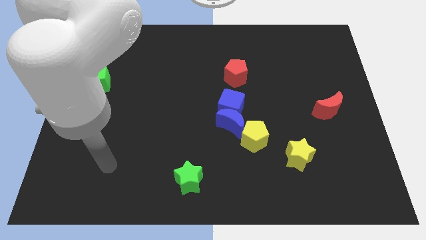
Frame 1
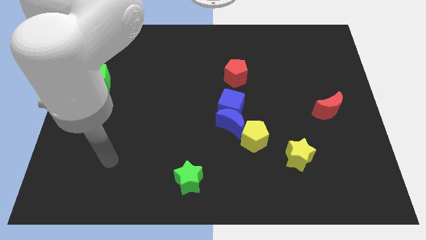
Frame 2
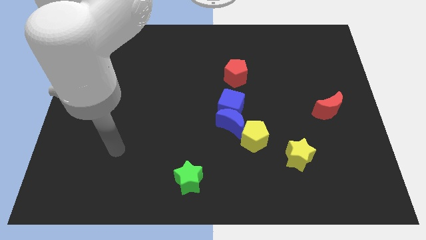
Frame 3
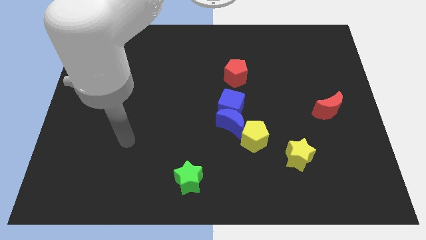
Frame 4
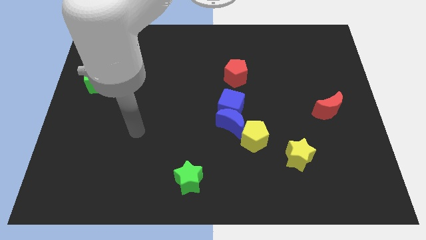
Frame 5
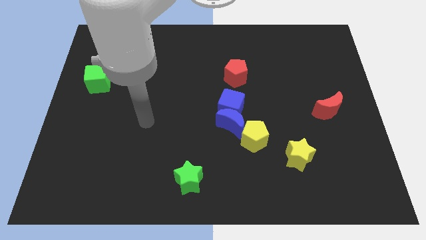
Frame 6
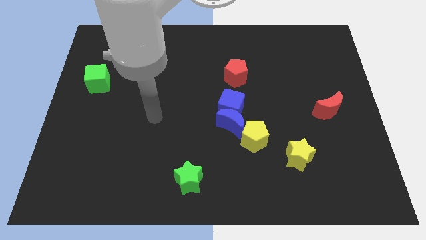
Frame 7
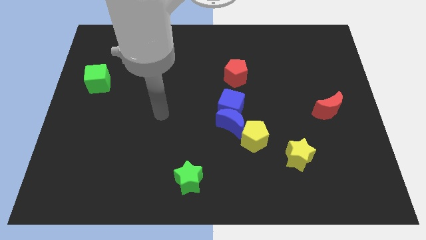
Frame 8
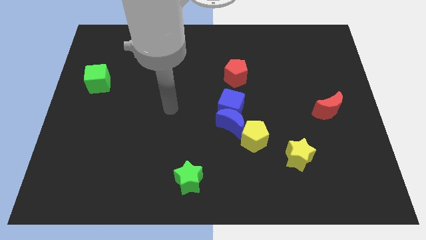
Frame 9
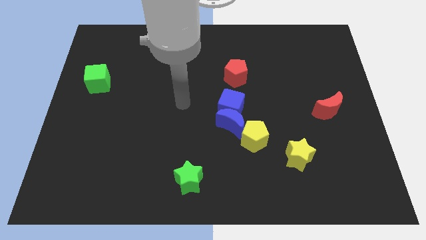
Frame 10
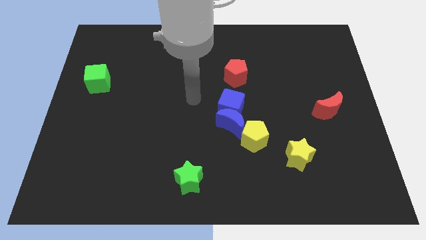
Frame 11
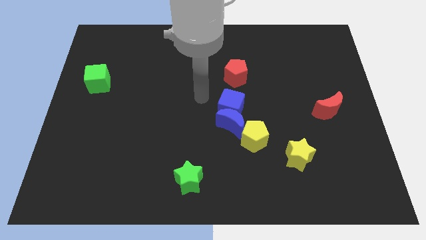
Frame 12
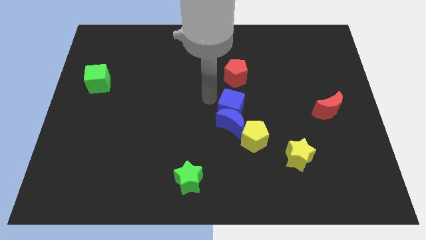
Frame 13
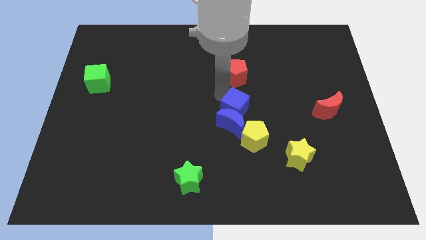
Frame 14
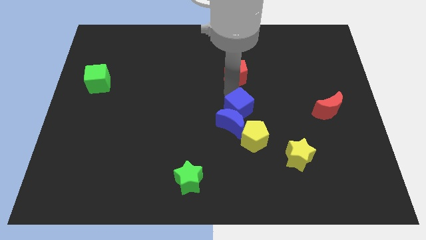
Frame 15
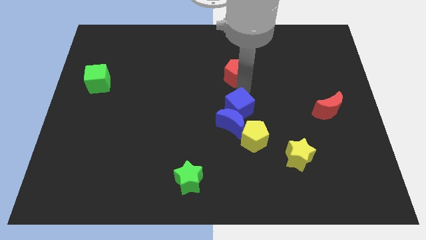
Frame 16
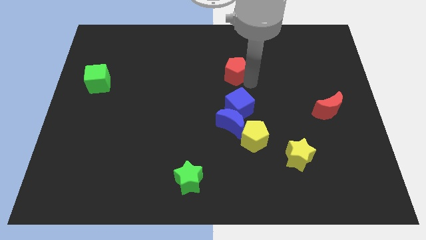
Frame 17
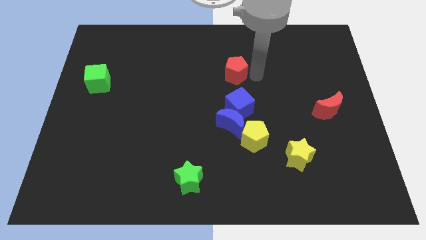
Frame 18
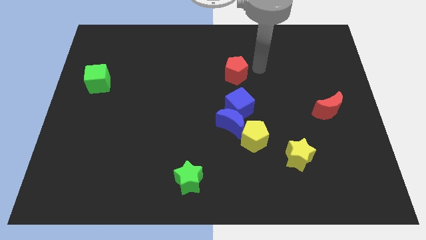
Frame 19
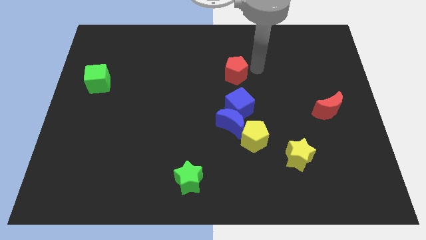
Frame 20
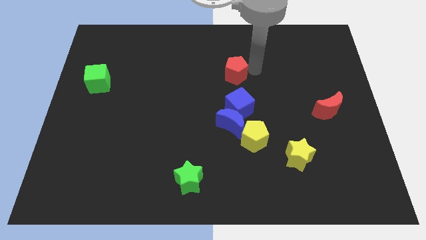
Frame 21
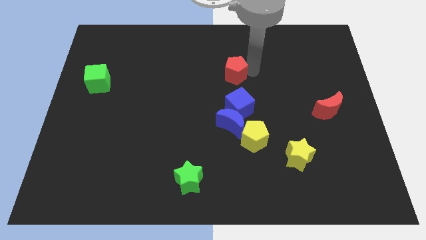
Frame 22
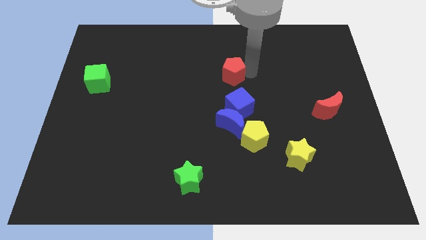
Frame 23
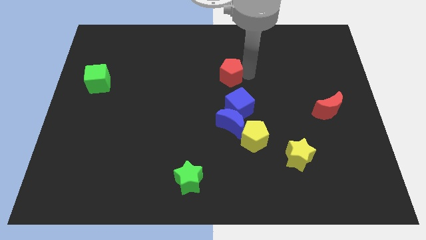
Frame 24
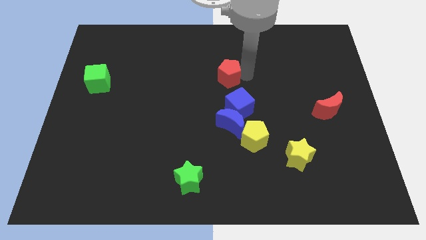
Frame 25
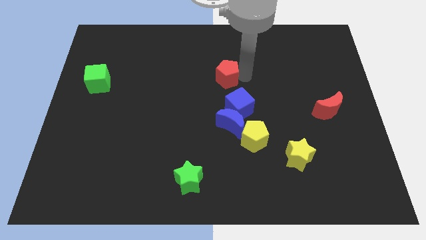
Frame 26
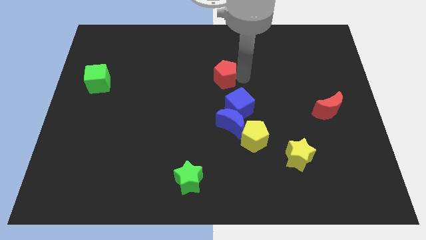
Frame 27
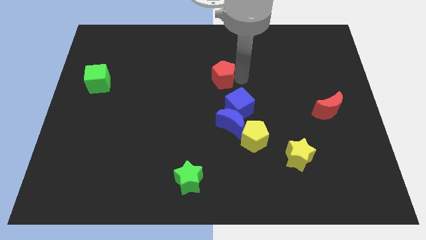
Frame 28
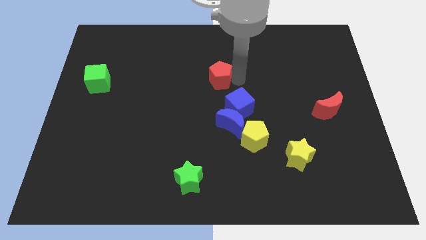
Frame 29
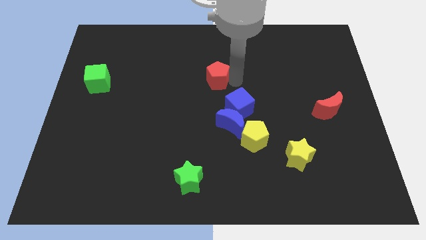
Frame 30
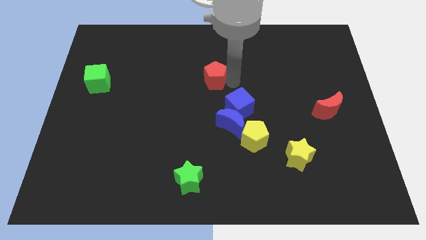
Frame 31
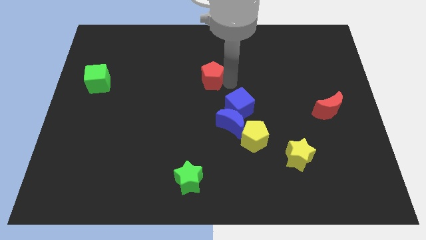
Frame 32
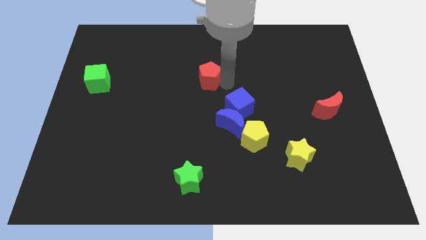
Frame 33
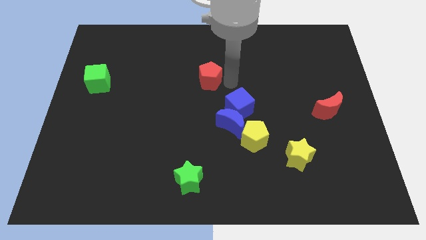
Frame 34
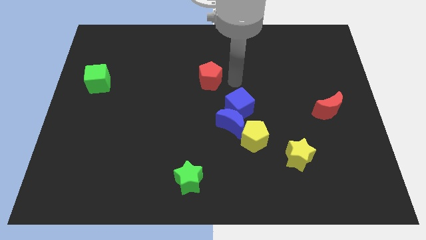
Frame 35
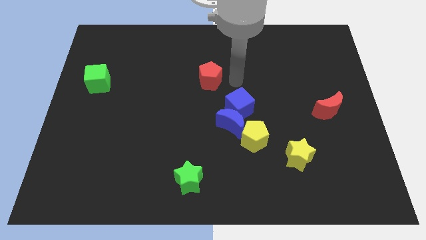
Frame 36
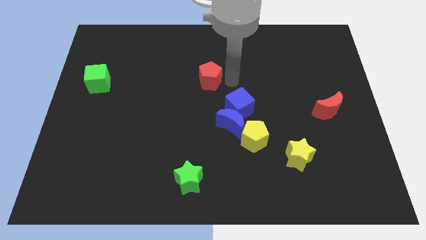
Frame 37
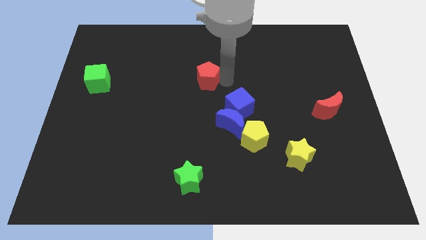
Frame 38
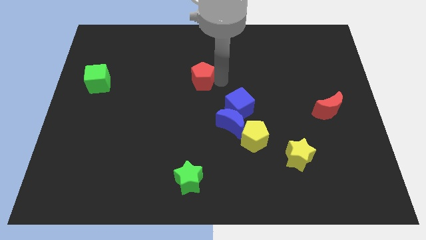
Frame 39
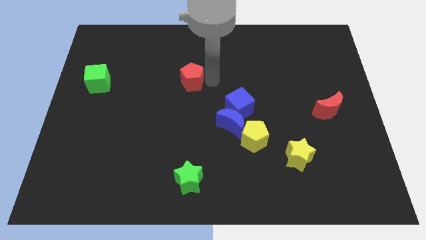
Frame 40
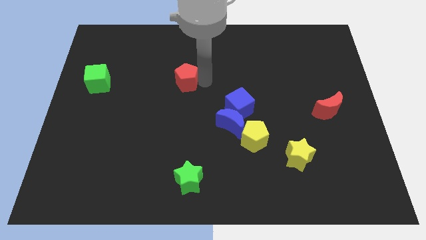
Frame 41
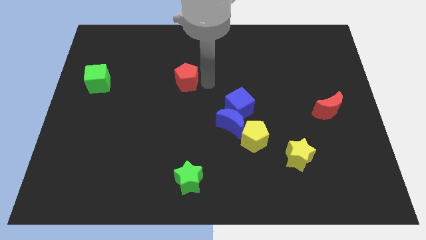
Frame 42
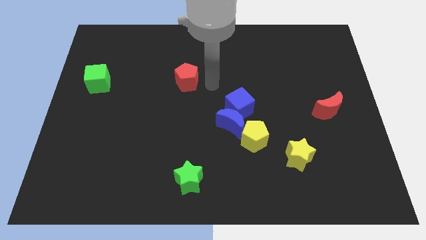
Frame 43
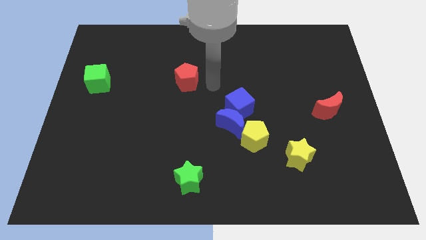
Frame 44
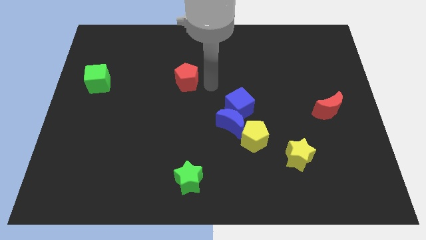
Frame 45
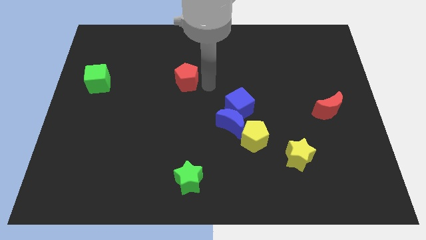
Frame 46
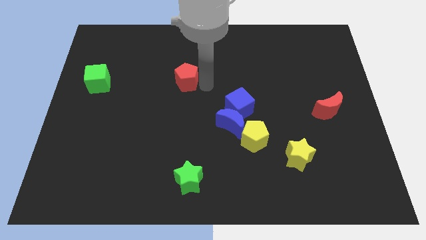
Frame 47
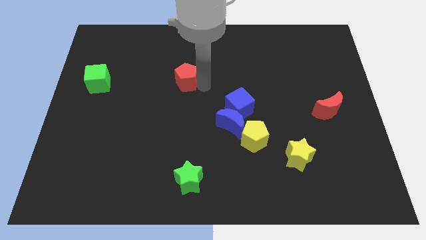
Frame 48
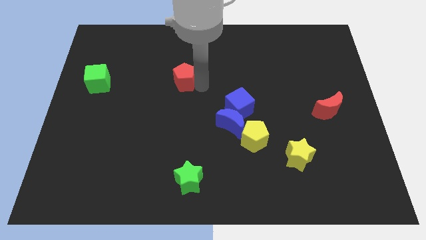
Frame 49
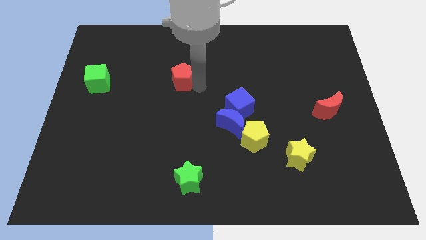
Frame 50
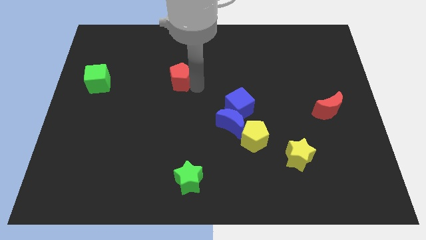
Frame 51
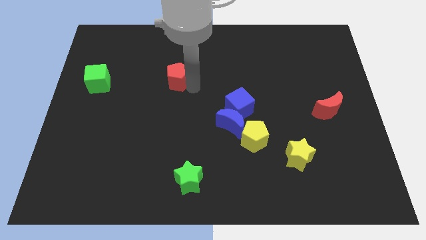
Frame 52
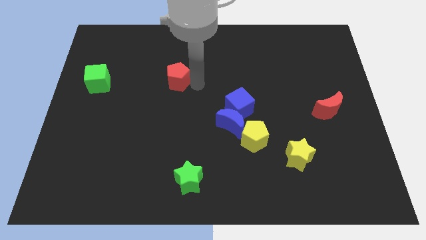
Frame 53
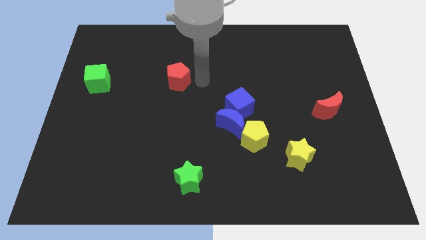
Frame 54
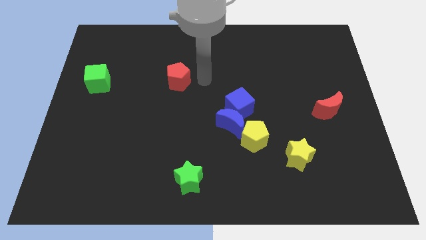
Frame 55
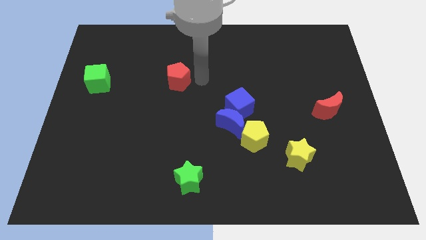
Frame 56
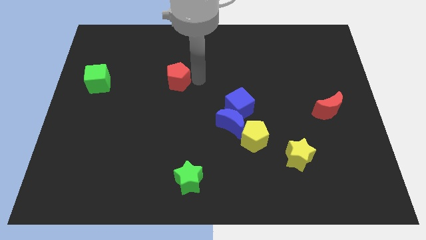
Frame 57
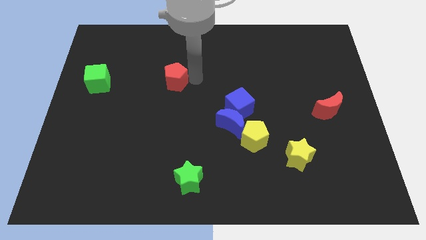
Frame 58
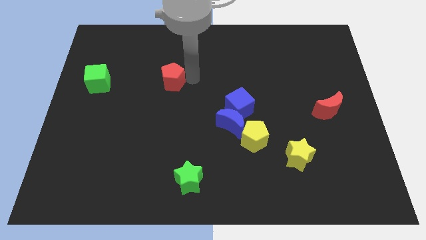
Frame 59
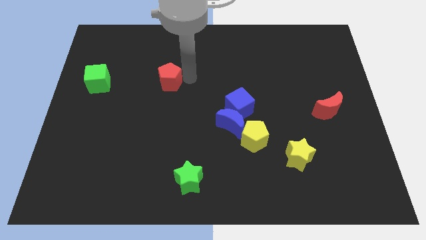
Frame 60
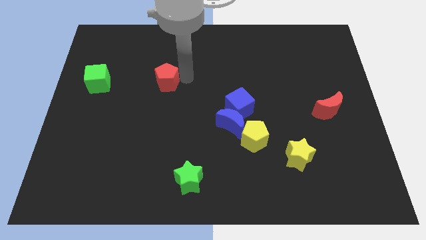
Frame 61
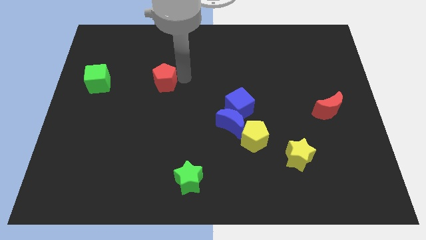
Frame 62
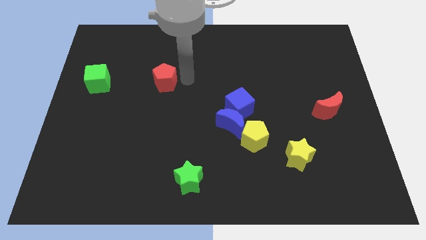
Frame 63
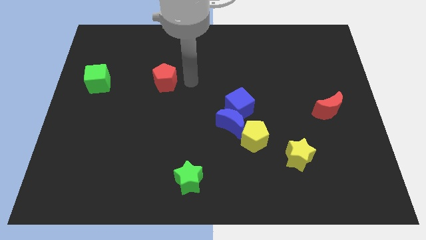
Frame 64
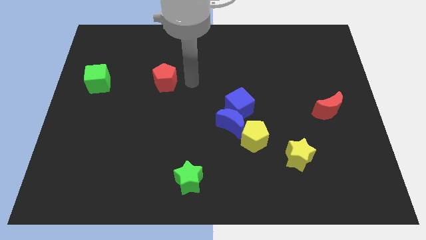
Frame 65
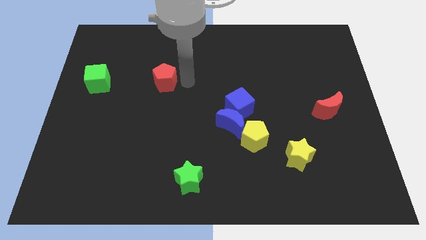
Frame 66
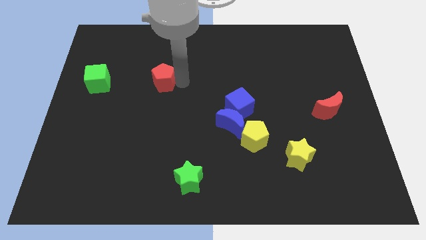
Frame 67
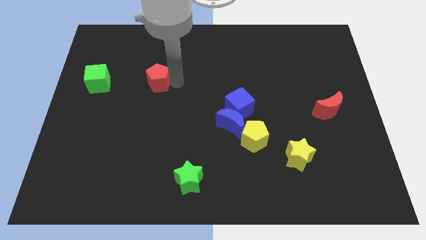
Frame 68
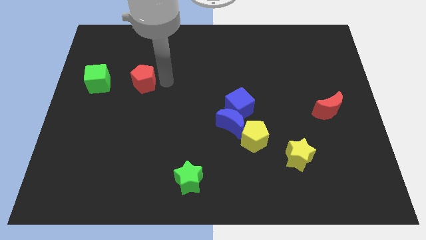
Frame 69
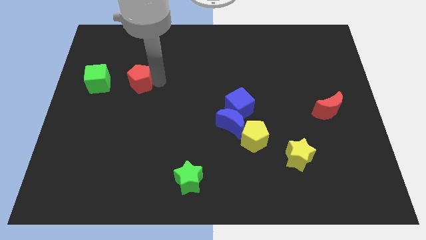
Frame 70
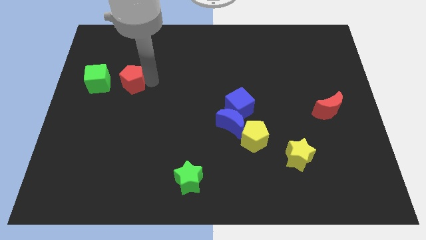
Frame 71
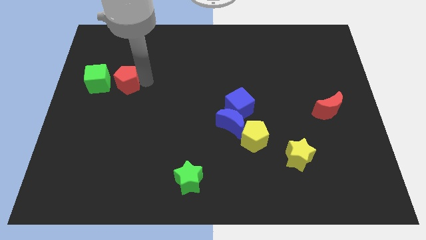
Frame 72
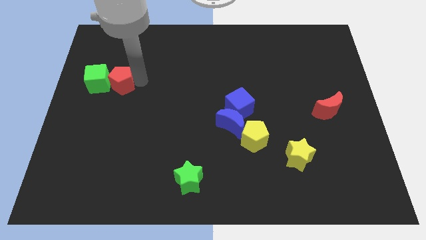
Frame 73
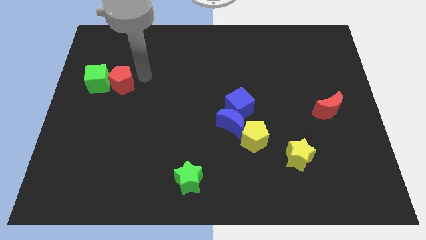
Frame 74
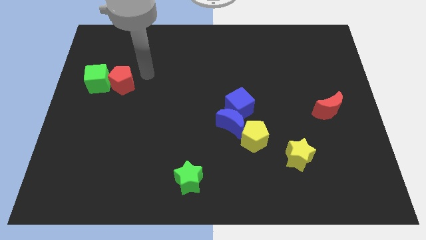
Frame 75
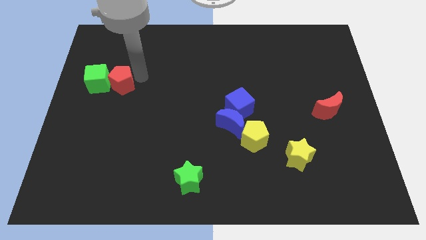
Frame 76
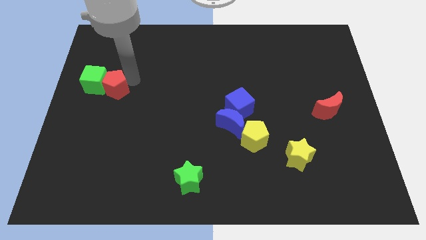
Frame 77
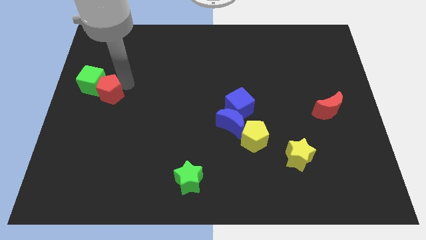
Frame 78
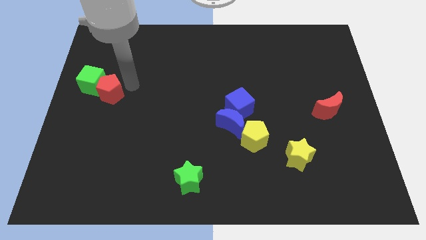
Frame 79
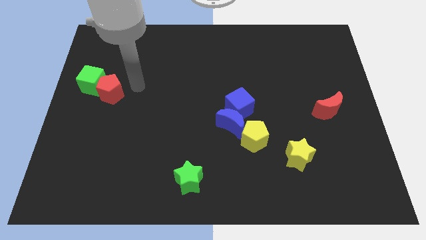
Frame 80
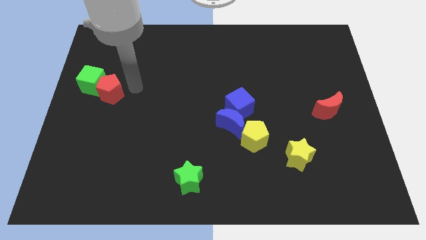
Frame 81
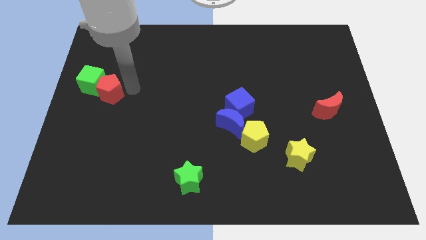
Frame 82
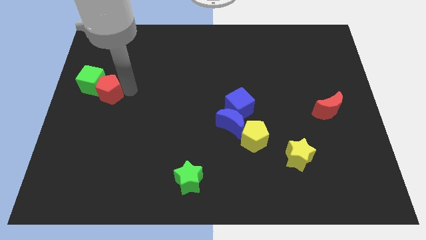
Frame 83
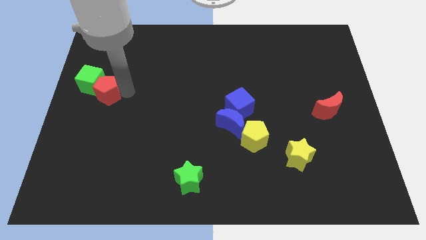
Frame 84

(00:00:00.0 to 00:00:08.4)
put the red pentagon to the left side
